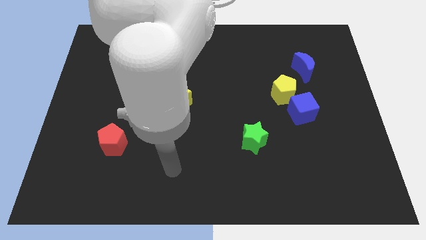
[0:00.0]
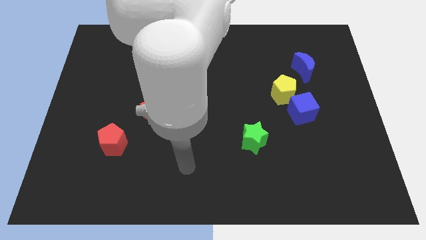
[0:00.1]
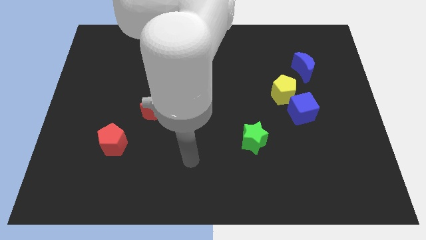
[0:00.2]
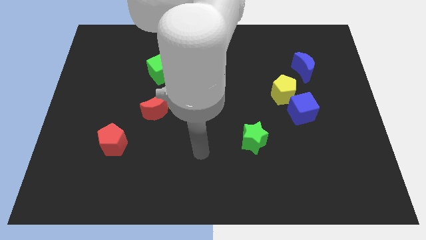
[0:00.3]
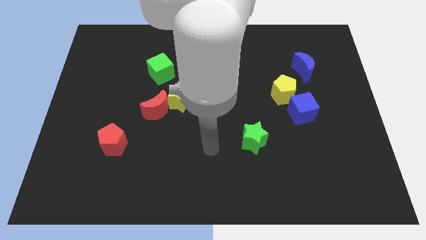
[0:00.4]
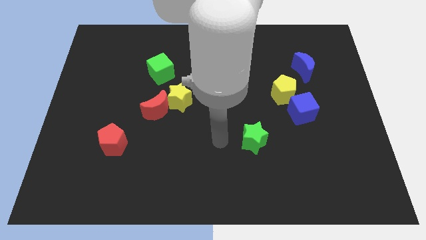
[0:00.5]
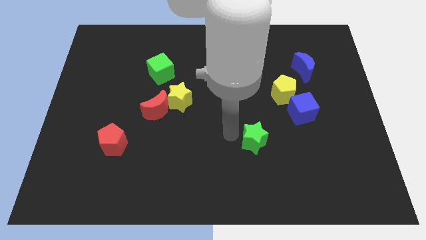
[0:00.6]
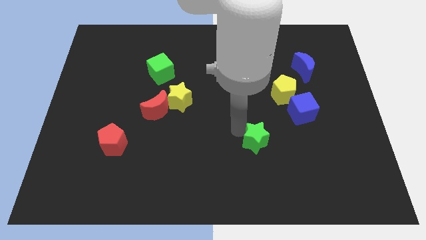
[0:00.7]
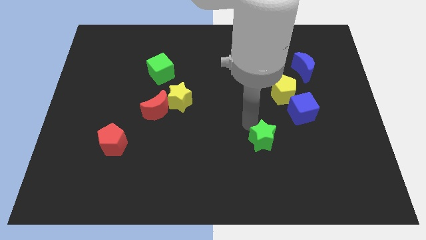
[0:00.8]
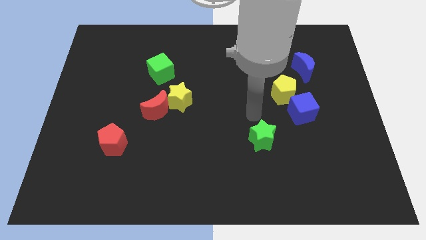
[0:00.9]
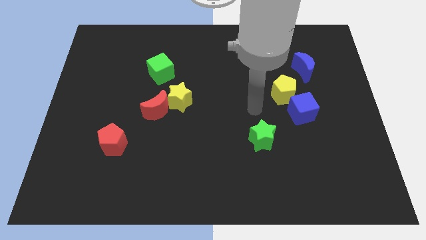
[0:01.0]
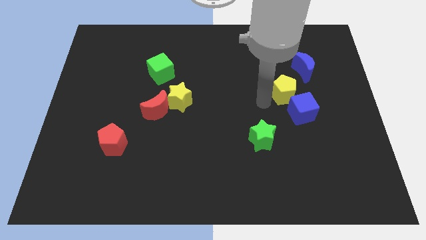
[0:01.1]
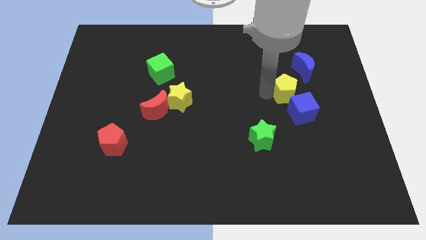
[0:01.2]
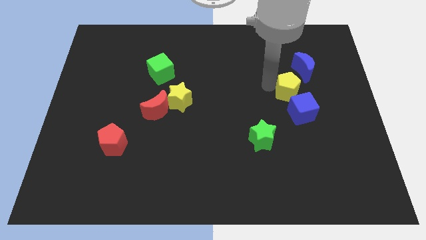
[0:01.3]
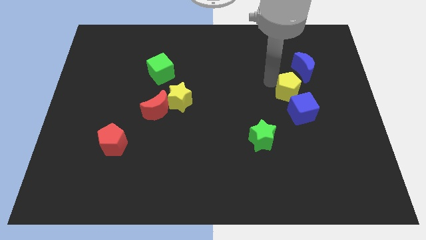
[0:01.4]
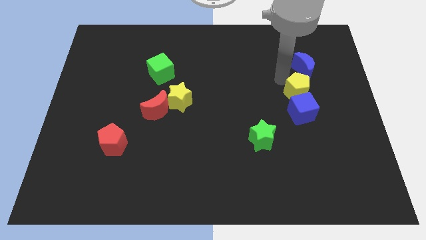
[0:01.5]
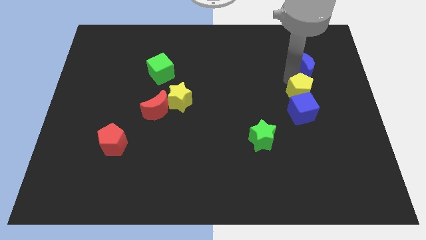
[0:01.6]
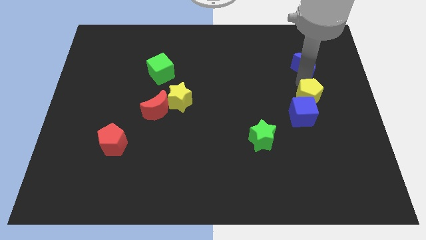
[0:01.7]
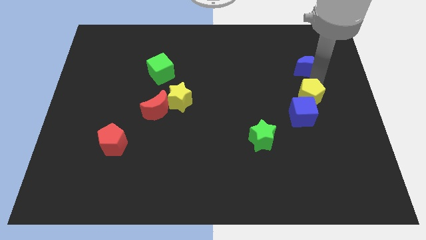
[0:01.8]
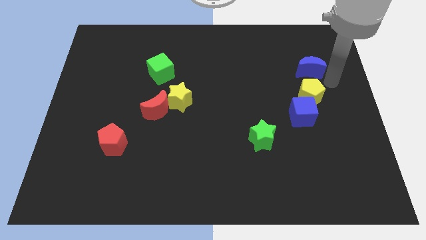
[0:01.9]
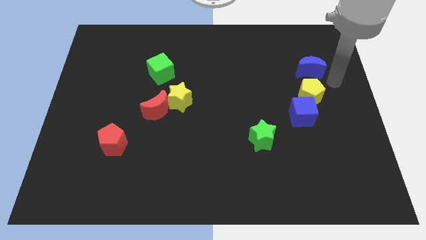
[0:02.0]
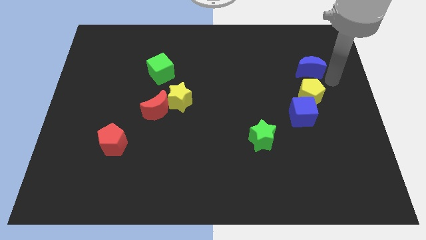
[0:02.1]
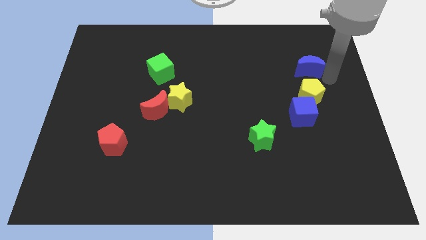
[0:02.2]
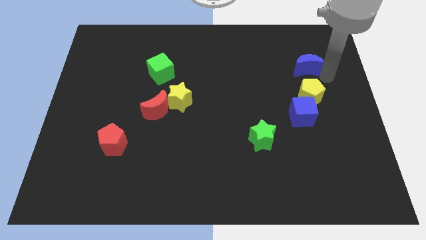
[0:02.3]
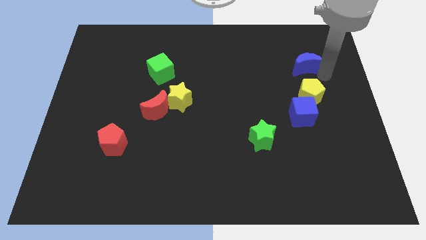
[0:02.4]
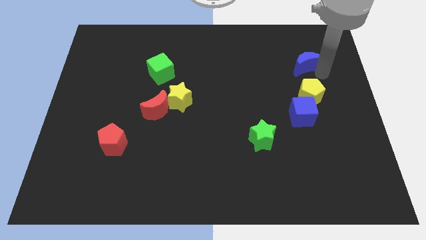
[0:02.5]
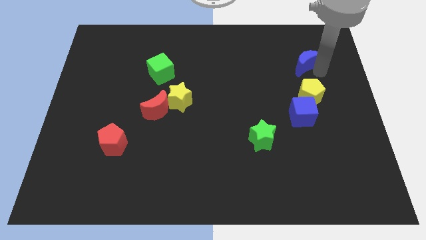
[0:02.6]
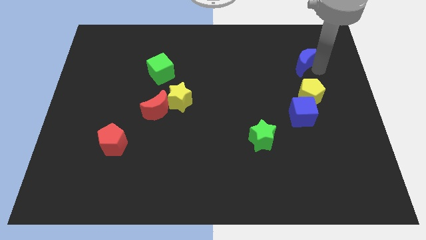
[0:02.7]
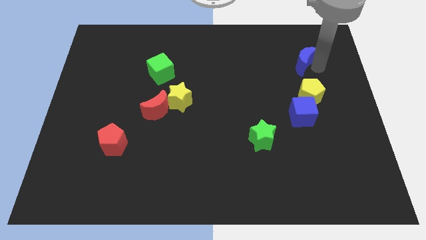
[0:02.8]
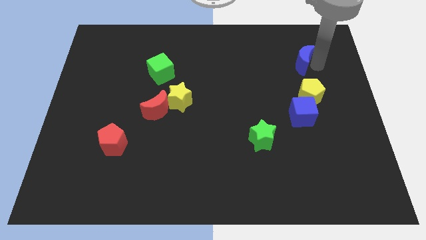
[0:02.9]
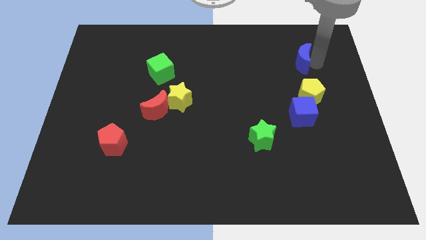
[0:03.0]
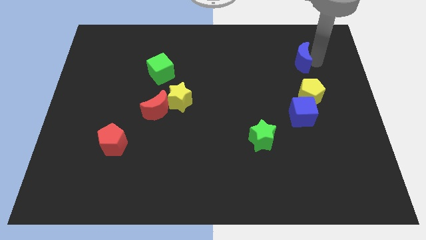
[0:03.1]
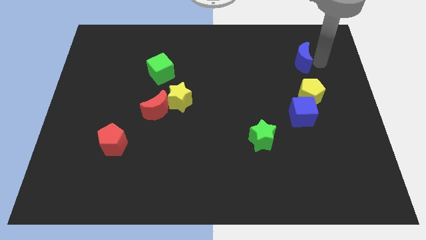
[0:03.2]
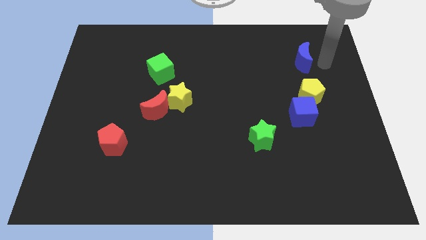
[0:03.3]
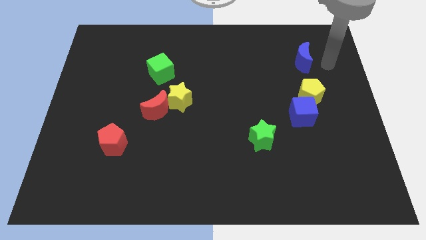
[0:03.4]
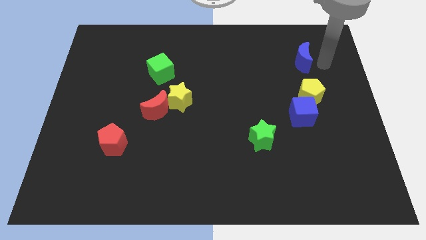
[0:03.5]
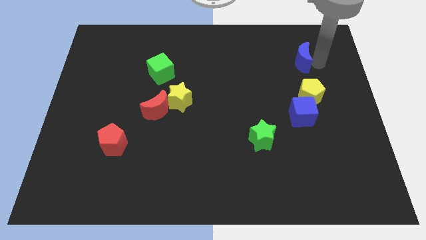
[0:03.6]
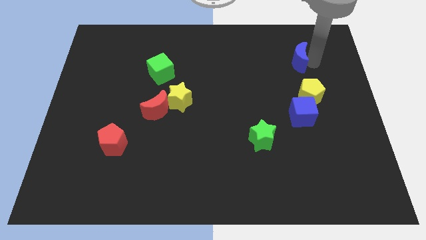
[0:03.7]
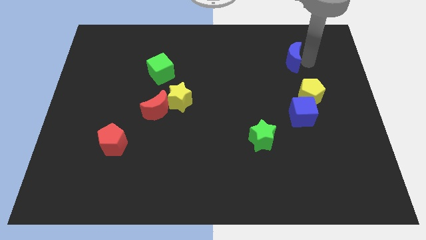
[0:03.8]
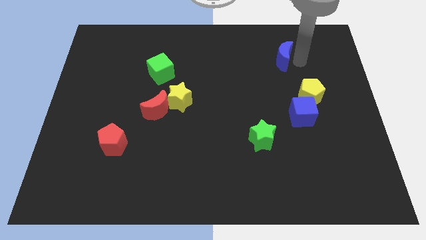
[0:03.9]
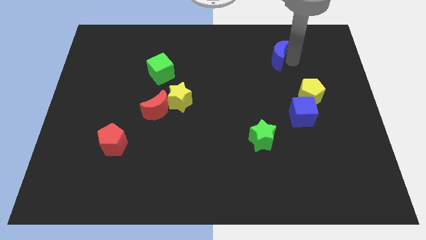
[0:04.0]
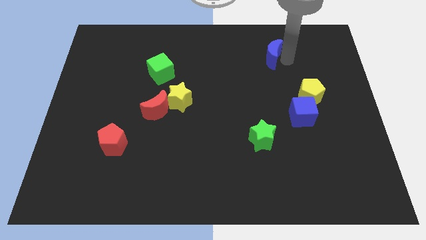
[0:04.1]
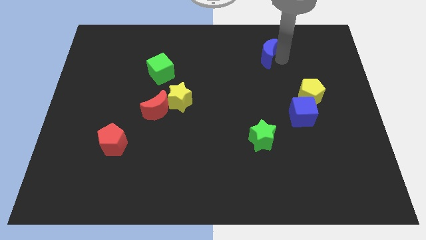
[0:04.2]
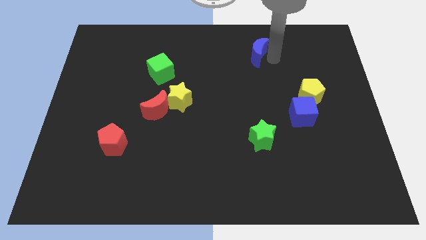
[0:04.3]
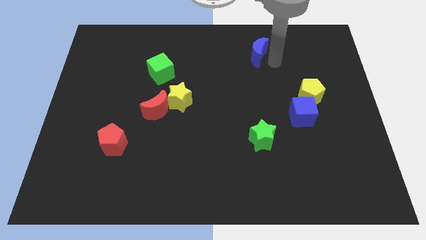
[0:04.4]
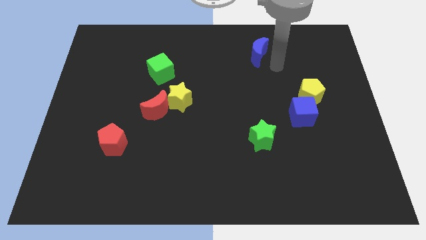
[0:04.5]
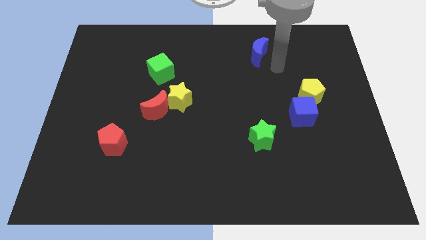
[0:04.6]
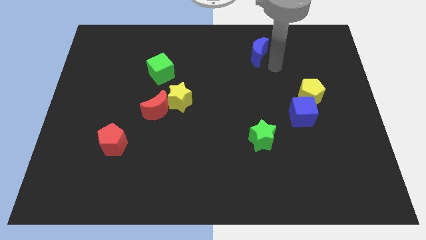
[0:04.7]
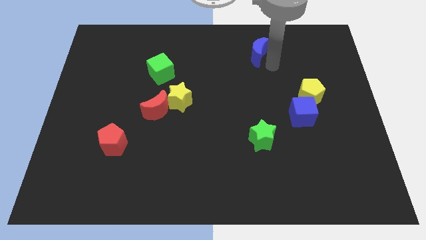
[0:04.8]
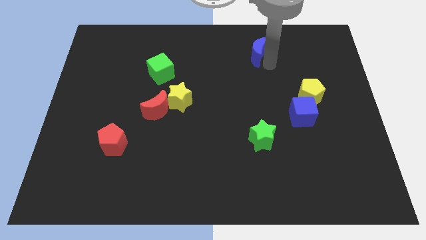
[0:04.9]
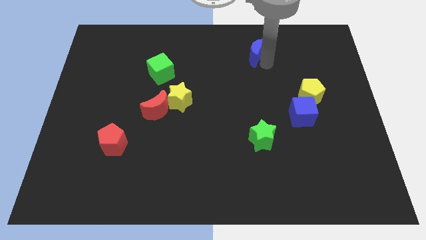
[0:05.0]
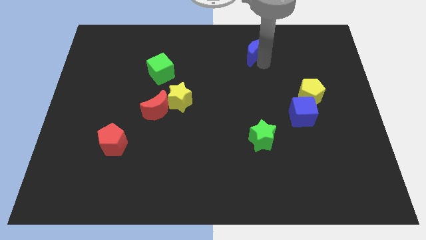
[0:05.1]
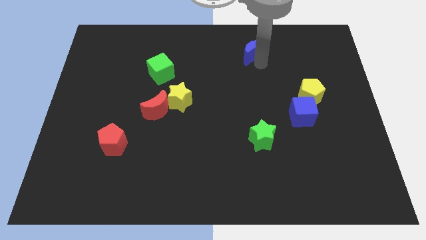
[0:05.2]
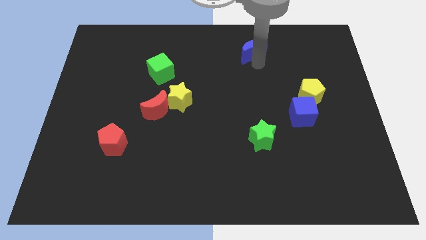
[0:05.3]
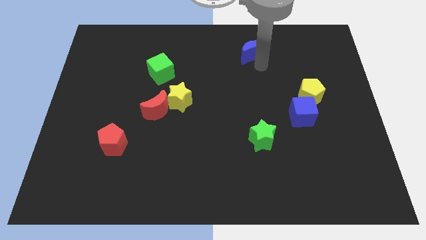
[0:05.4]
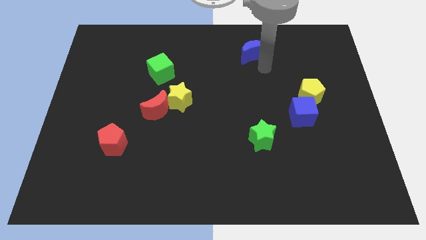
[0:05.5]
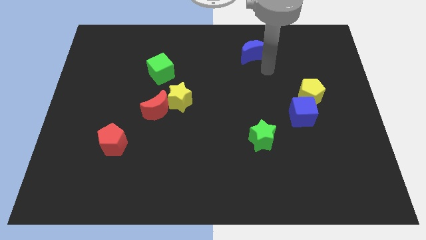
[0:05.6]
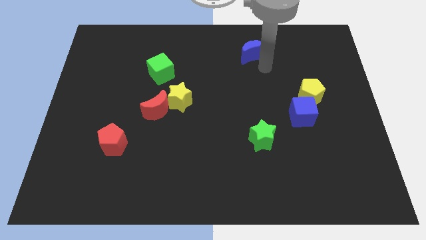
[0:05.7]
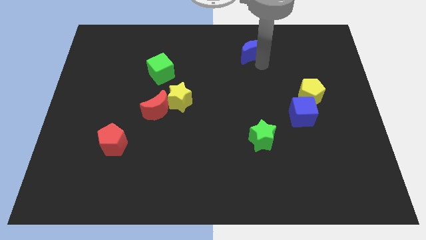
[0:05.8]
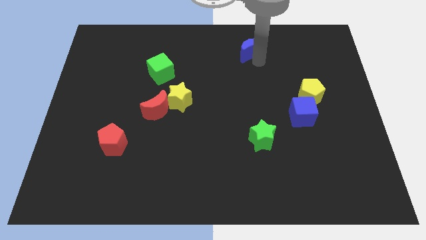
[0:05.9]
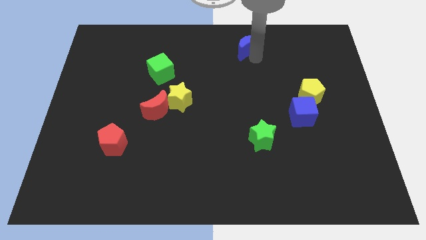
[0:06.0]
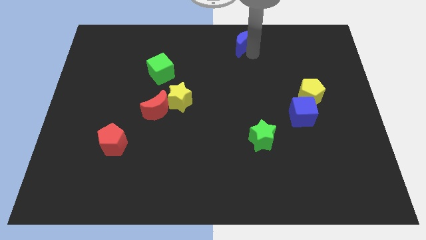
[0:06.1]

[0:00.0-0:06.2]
move the blue moon to the top
